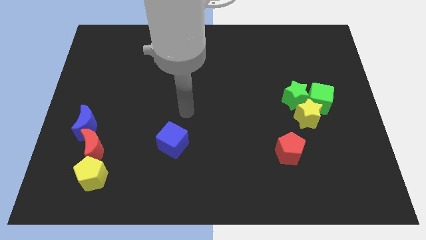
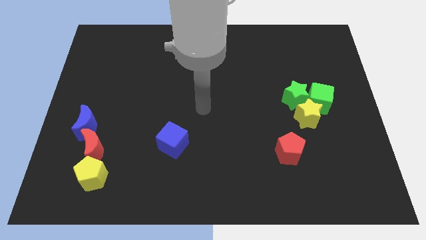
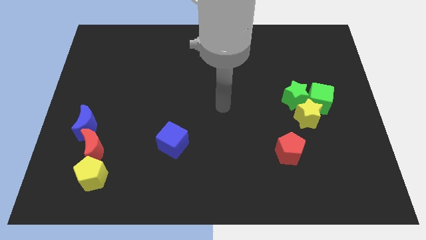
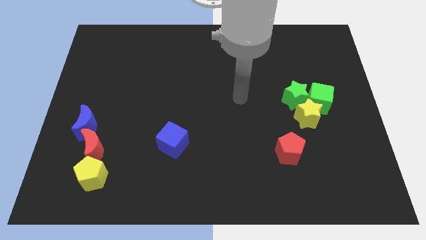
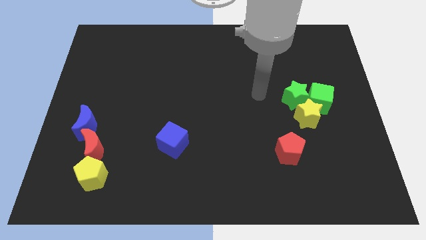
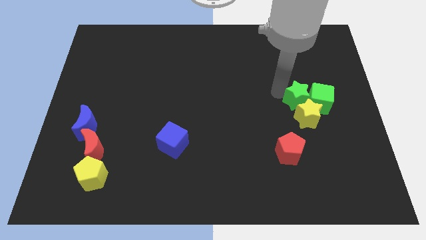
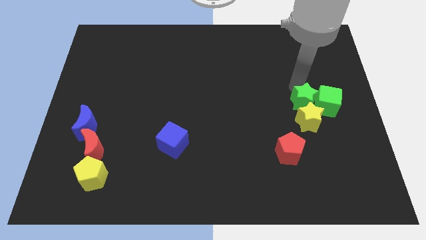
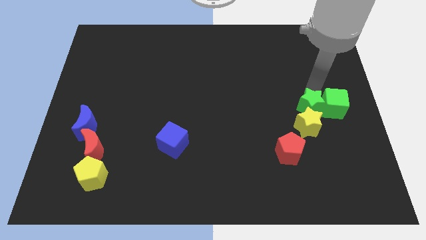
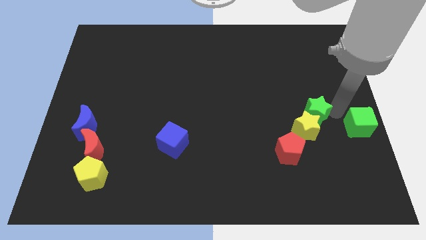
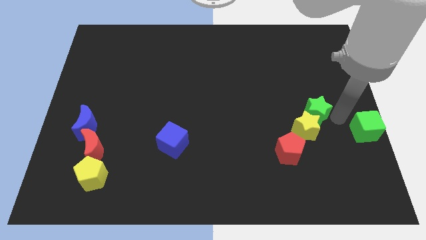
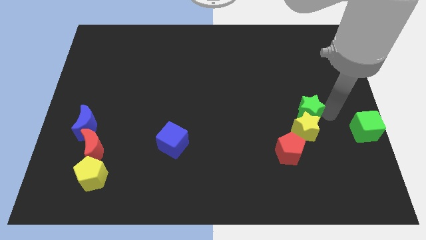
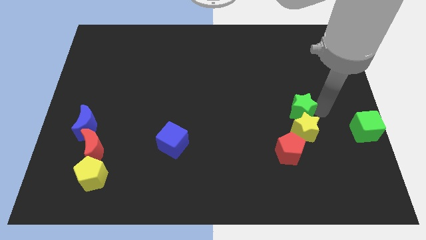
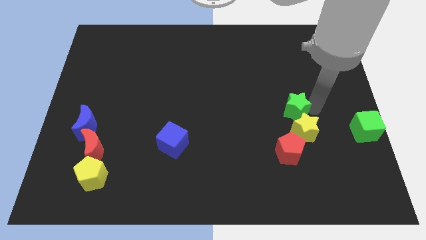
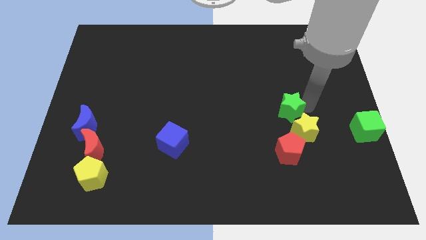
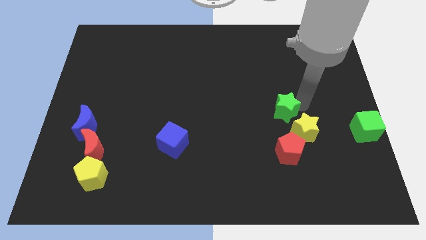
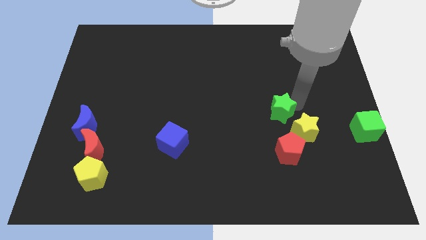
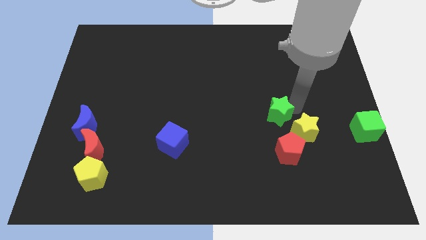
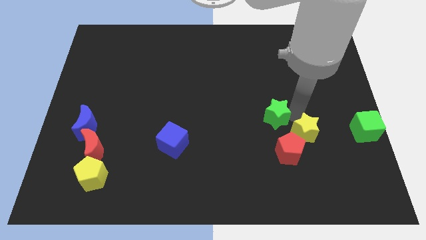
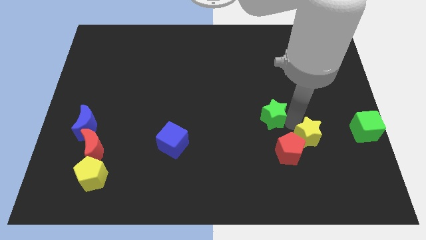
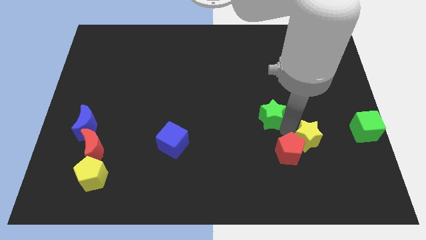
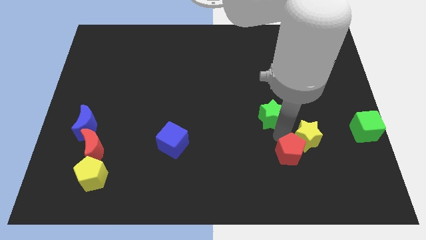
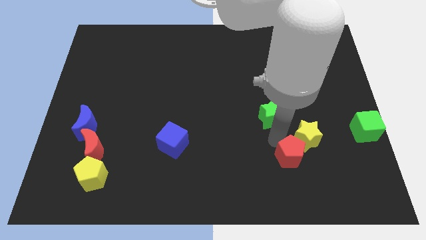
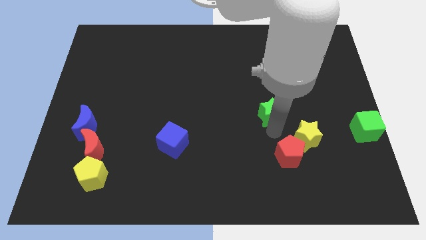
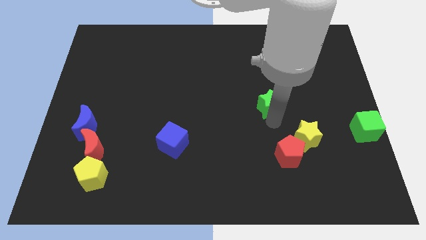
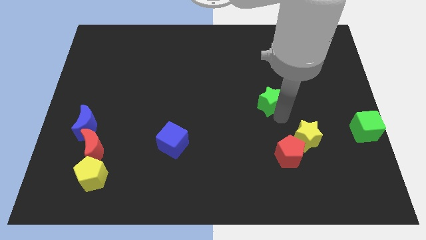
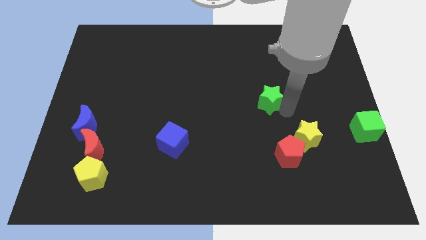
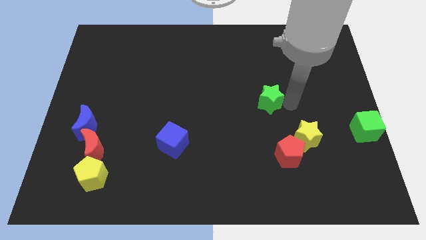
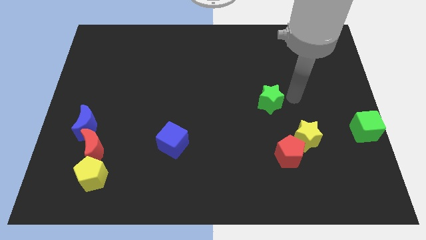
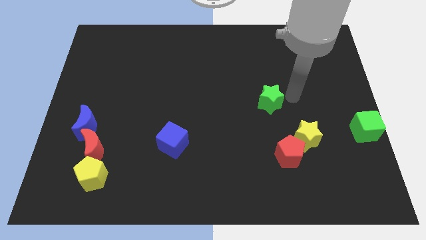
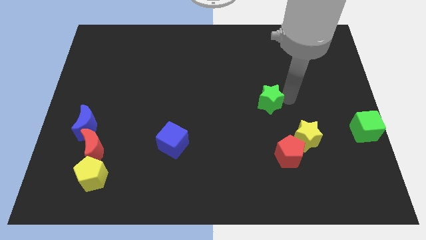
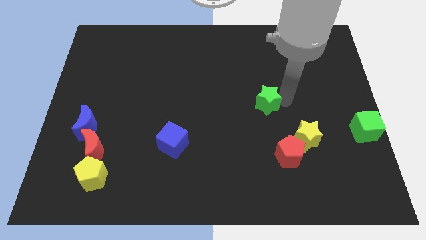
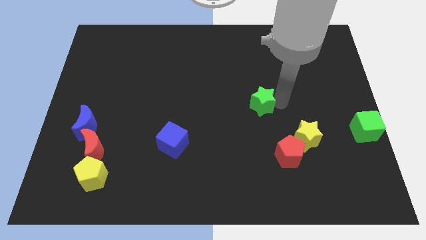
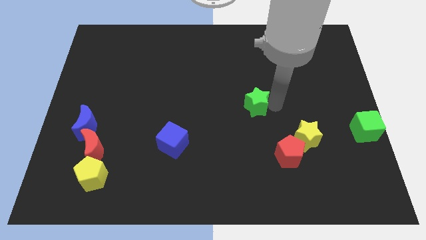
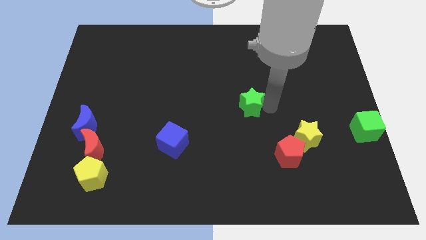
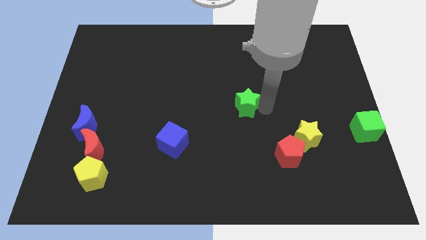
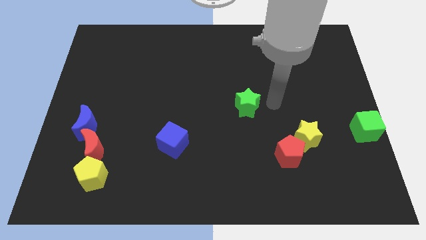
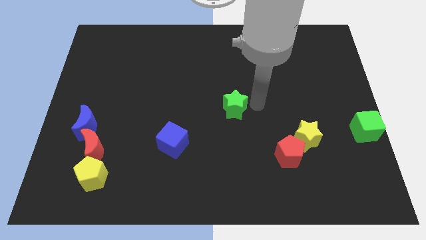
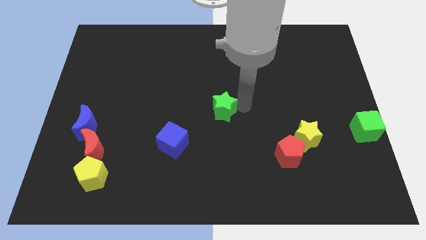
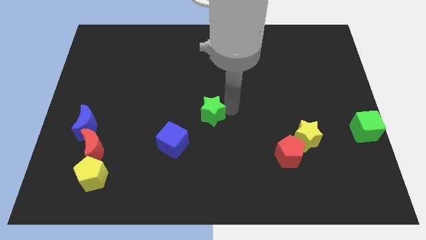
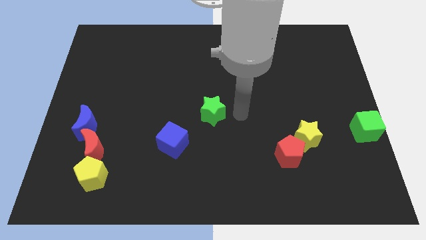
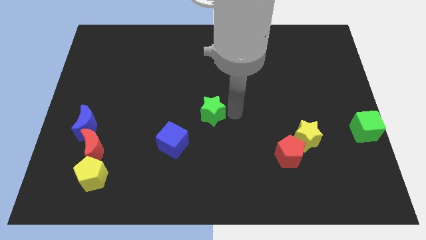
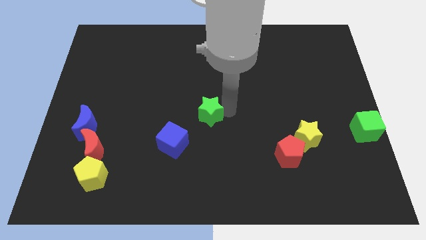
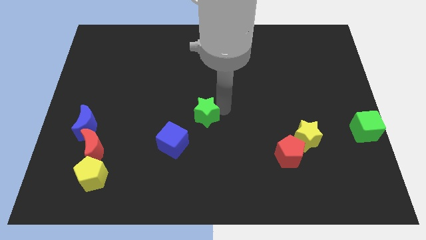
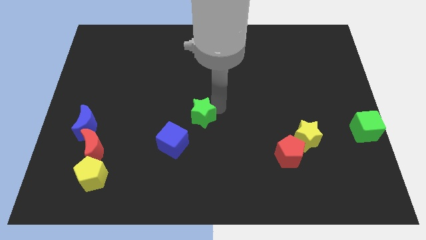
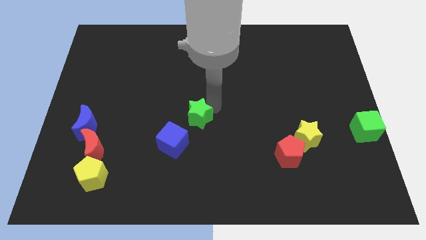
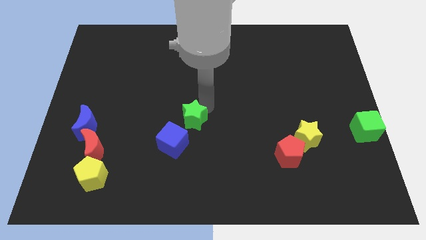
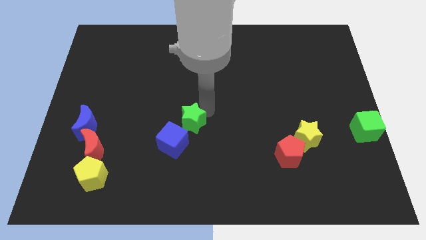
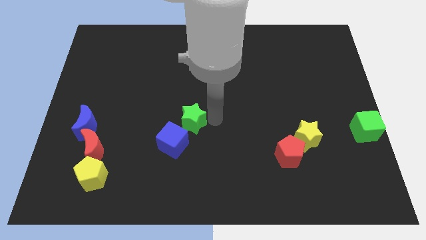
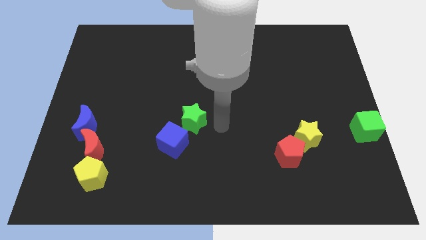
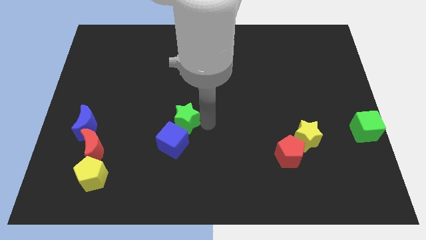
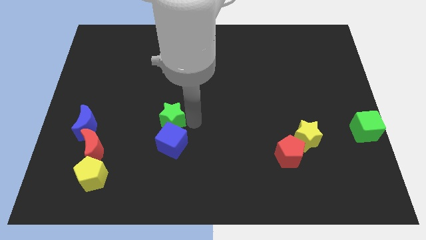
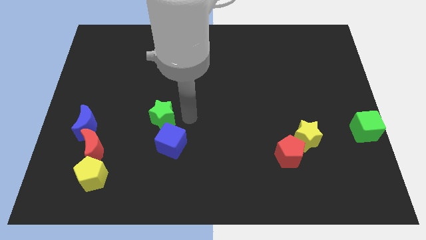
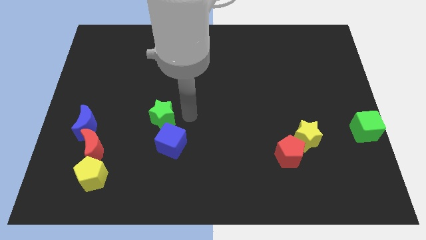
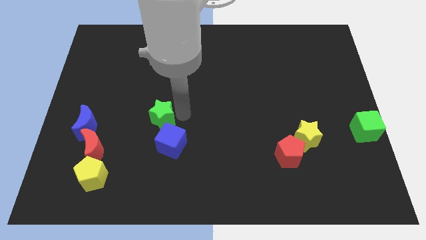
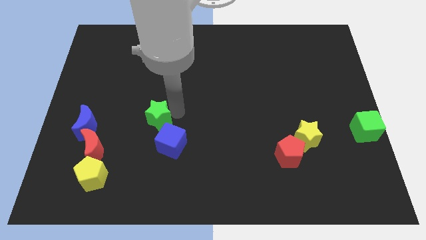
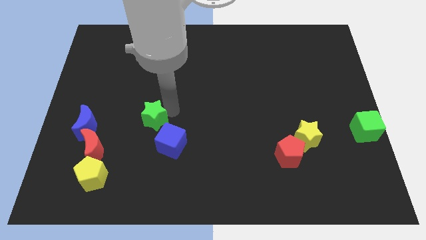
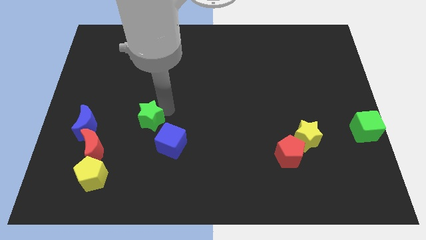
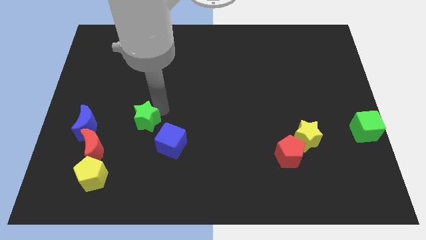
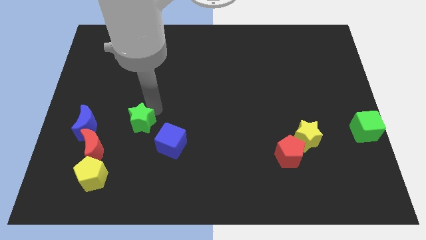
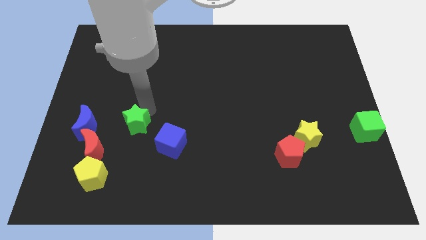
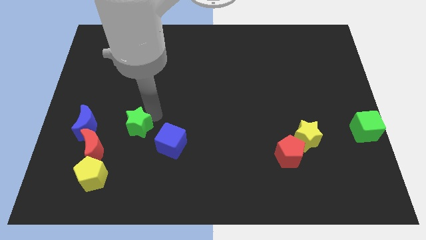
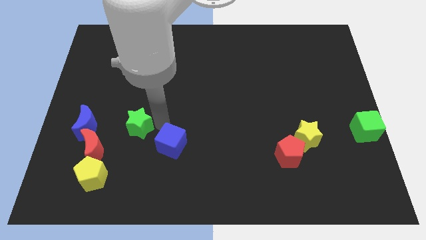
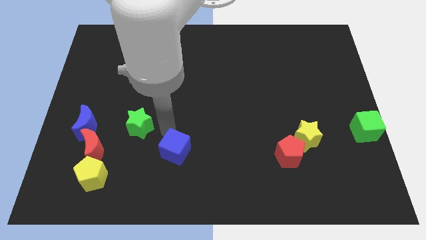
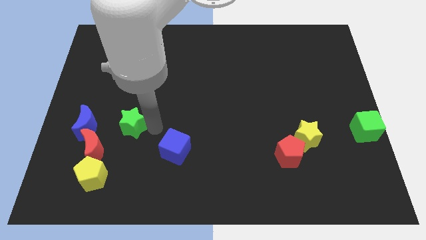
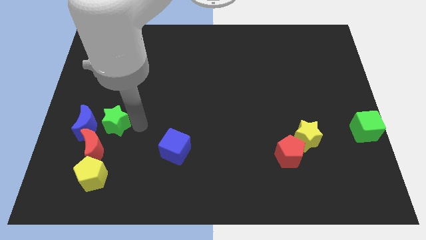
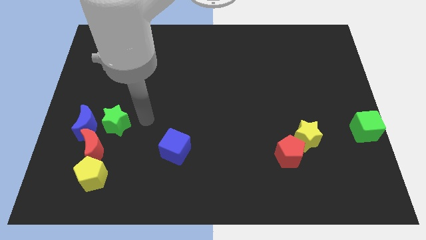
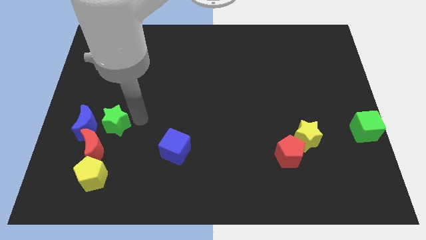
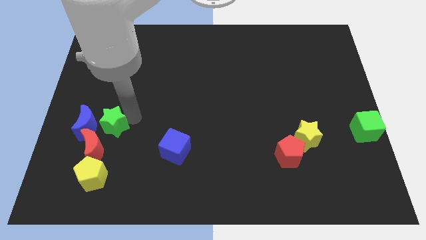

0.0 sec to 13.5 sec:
push the green star close to the blue moon

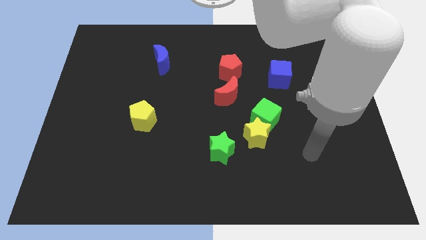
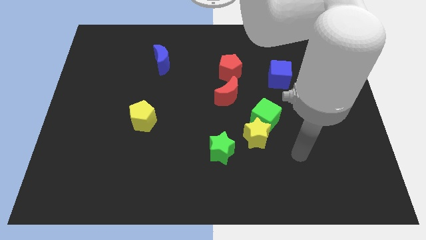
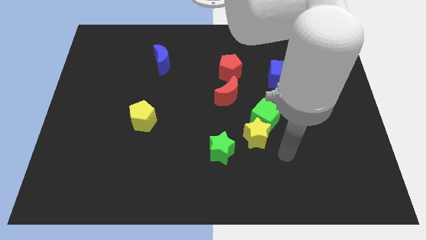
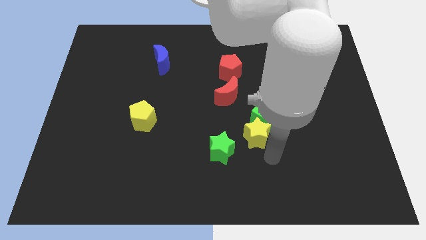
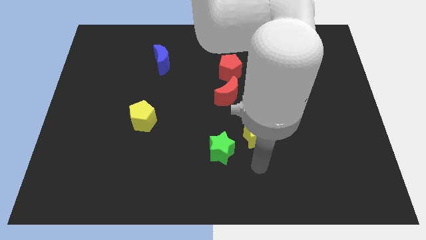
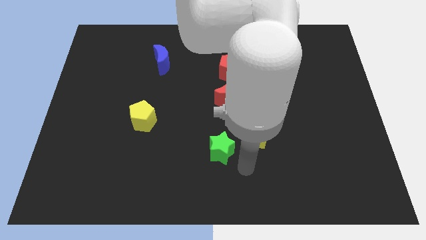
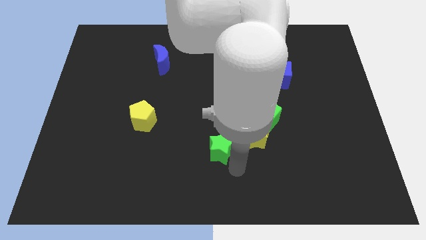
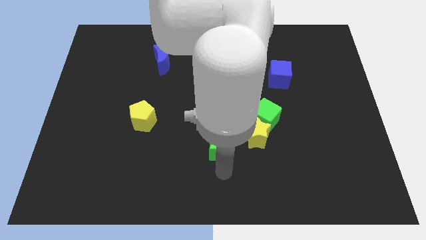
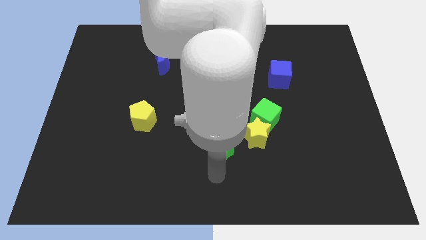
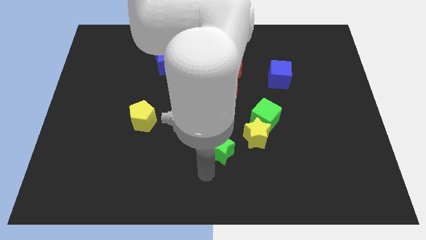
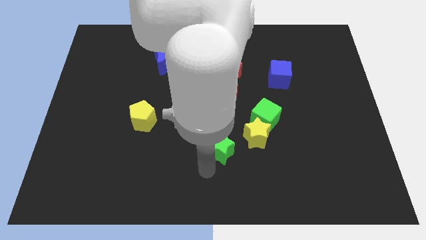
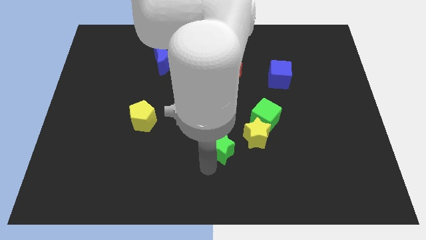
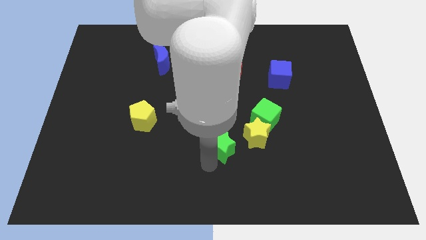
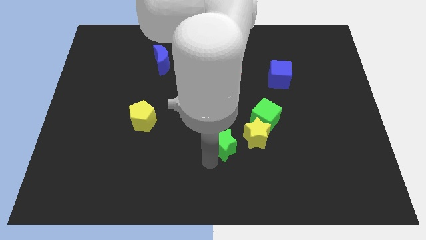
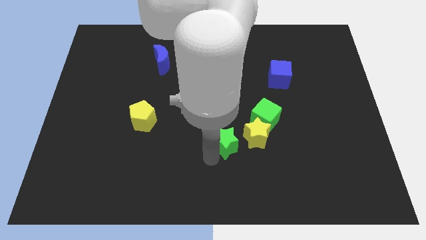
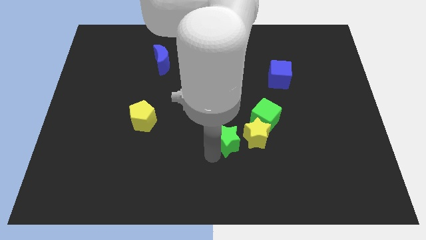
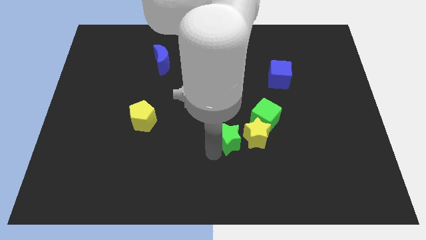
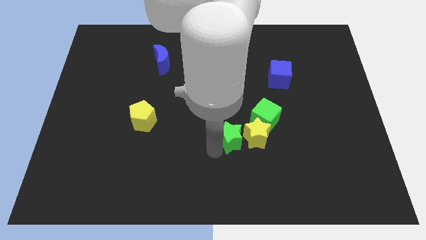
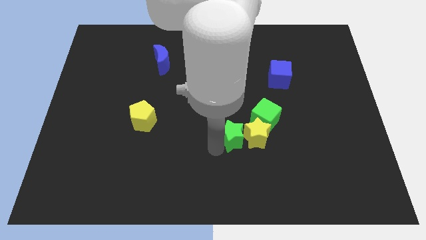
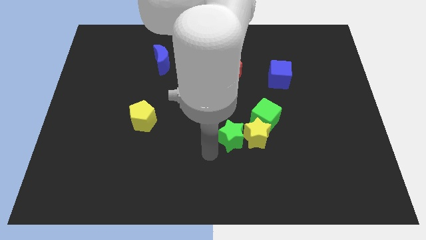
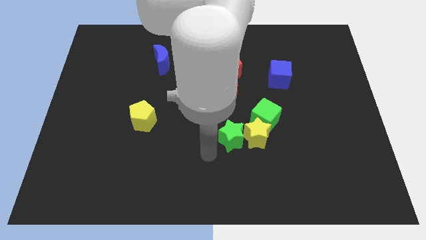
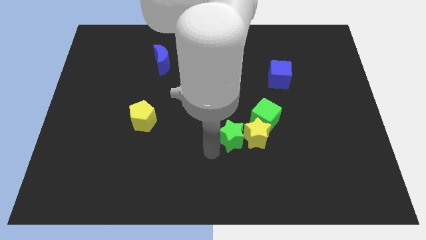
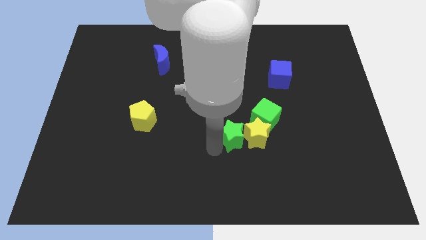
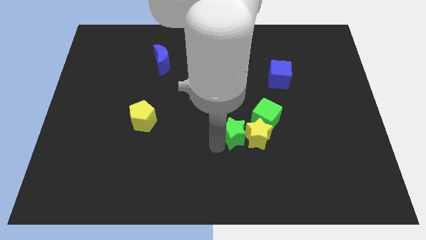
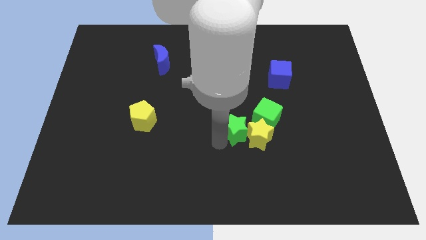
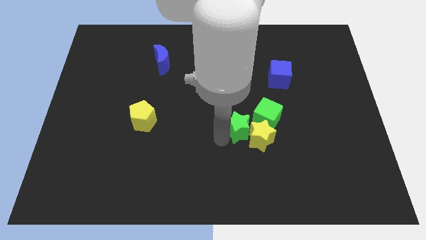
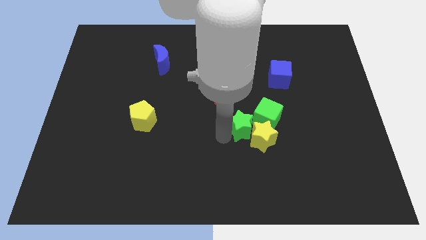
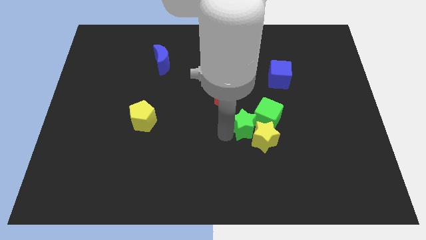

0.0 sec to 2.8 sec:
put the green star towards the green cube
